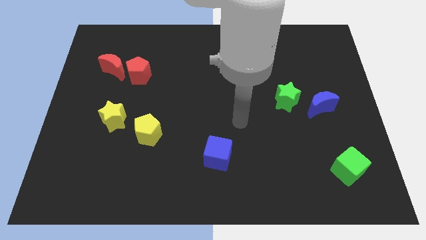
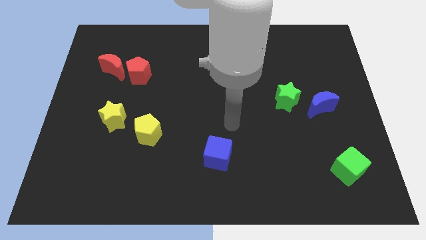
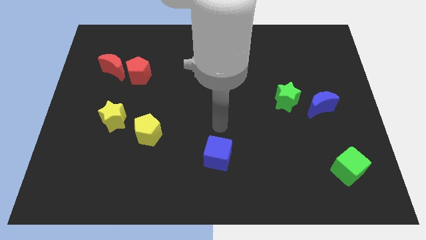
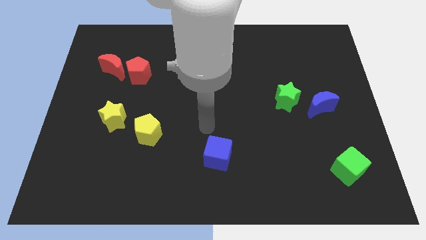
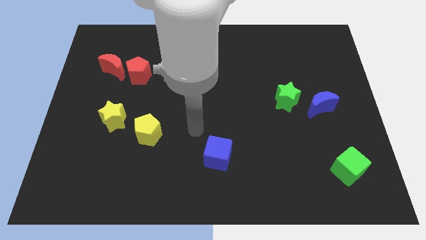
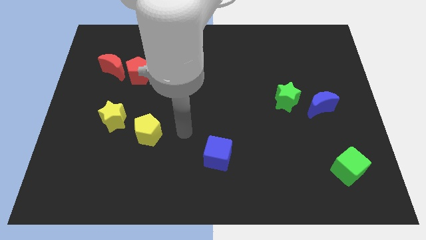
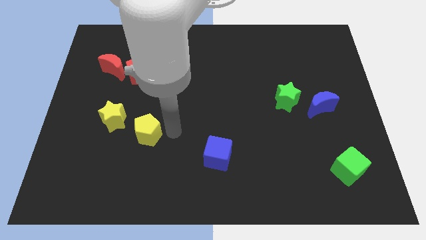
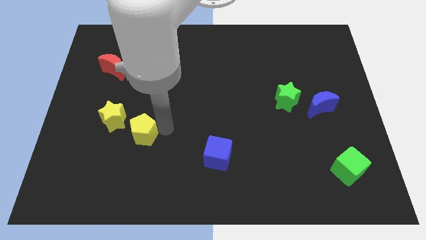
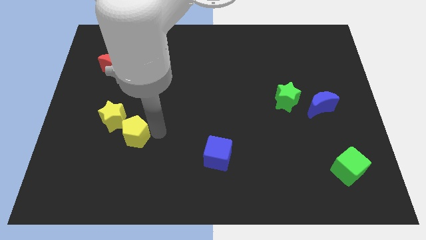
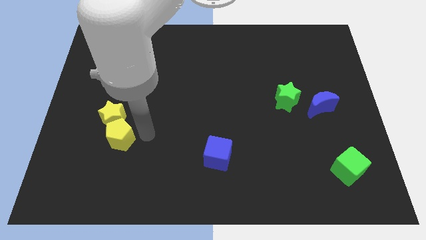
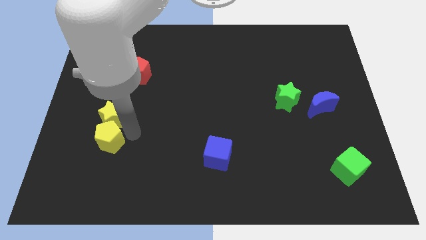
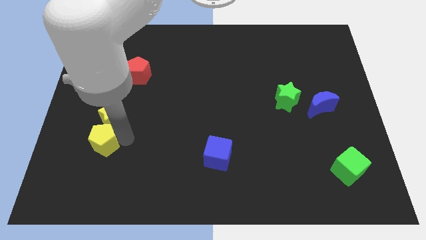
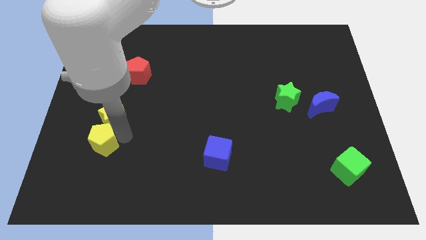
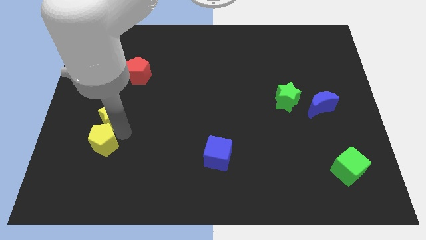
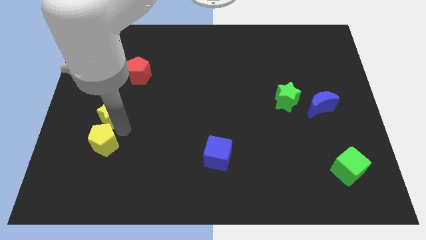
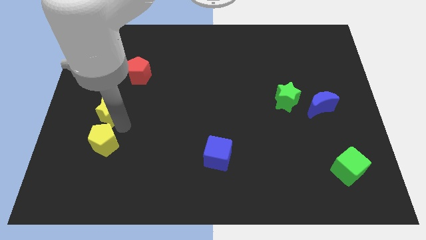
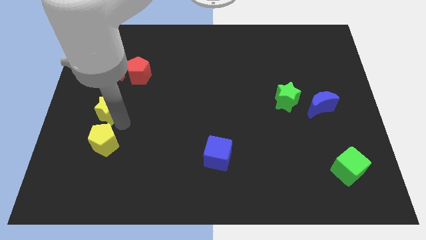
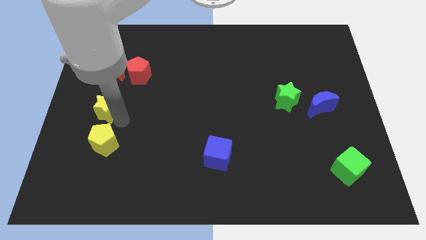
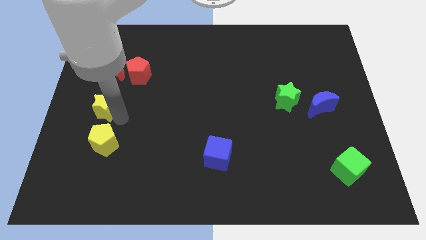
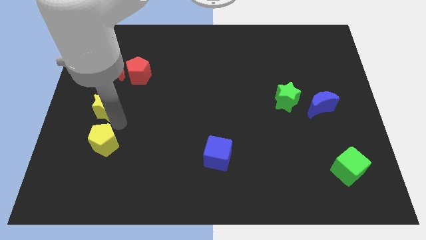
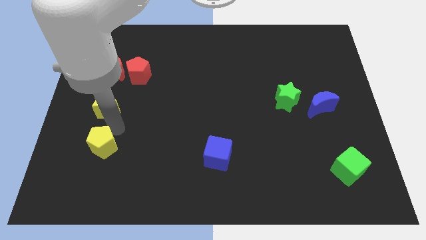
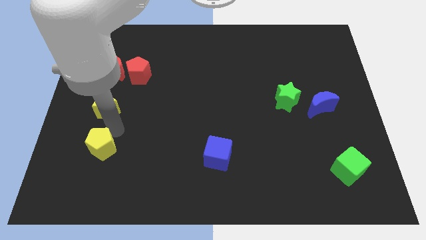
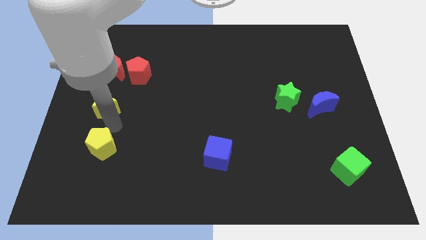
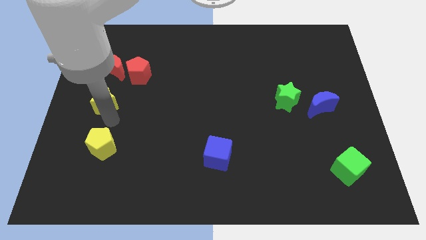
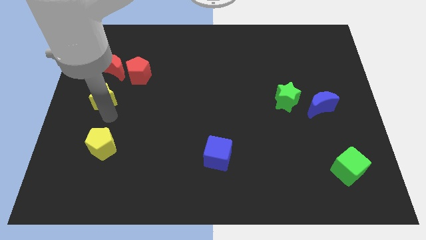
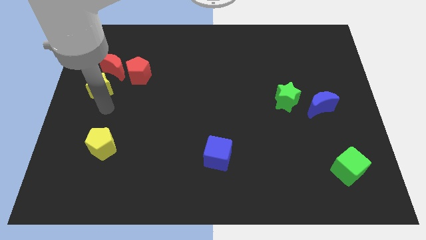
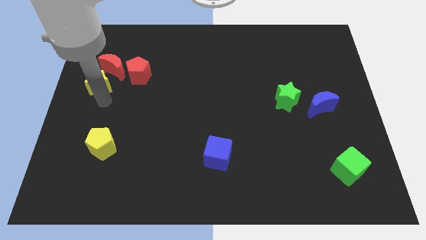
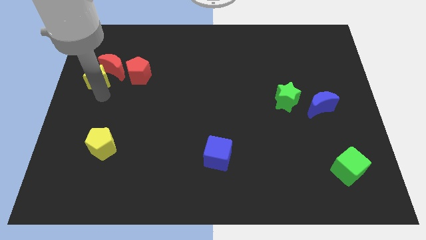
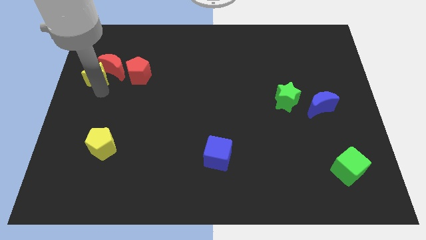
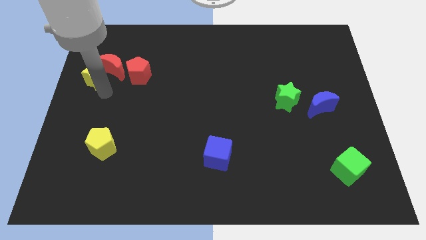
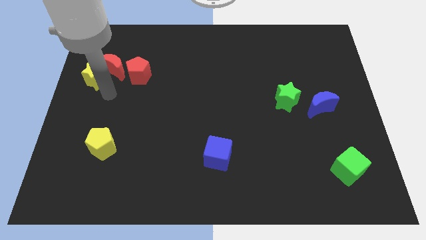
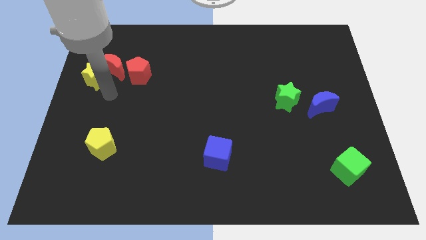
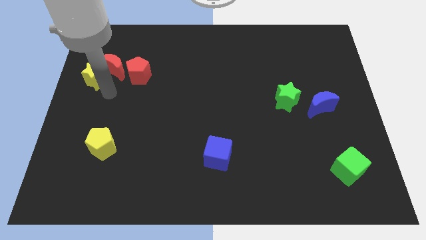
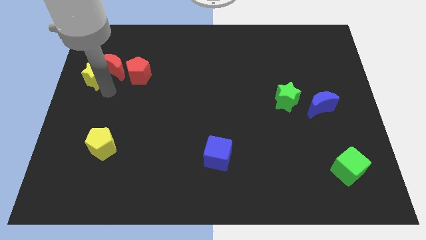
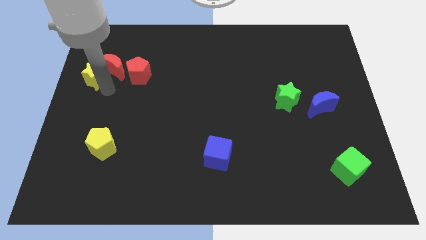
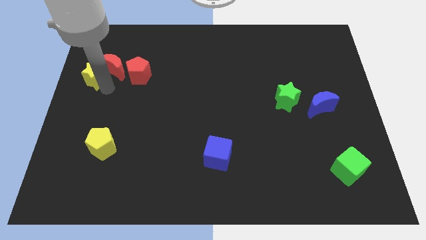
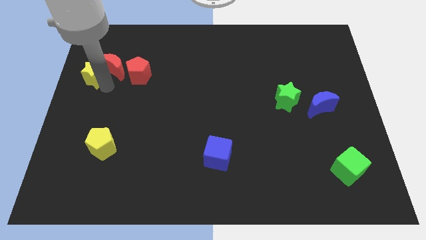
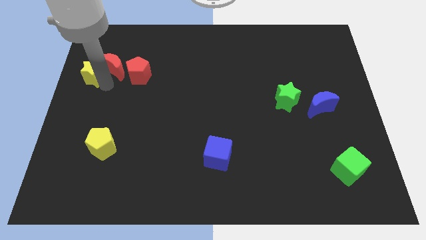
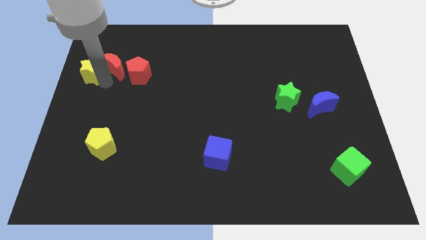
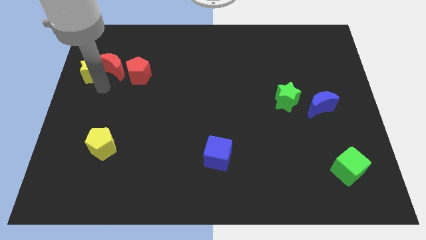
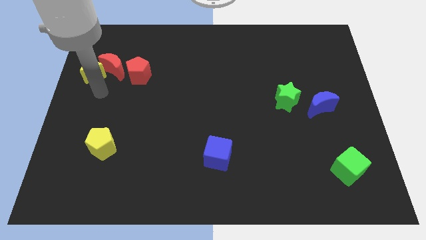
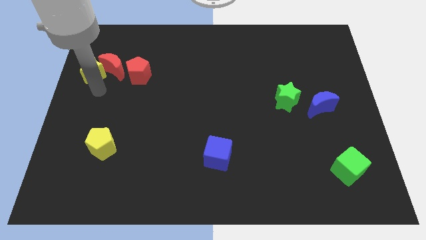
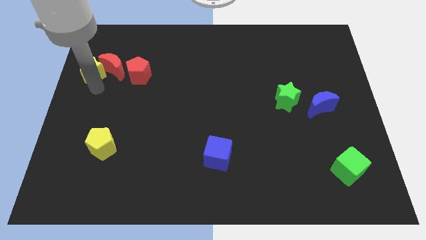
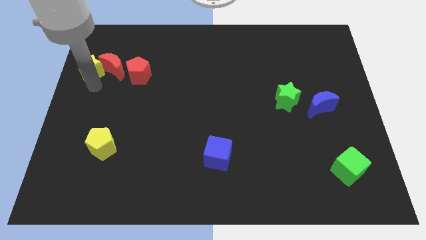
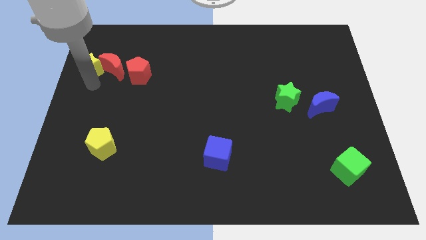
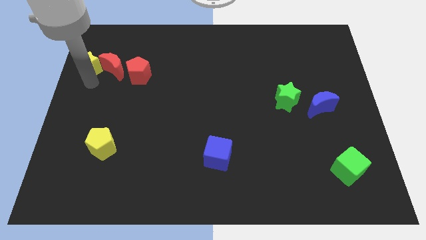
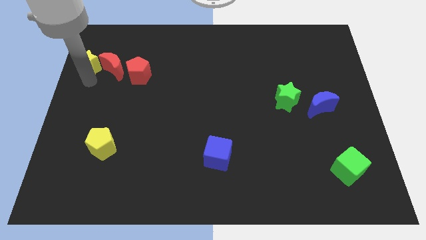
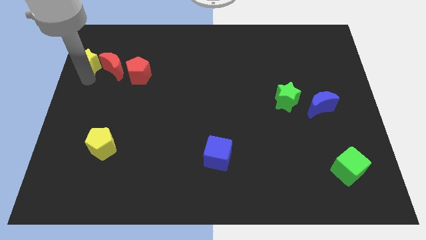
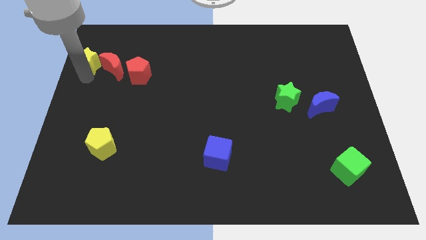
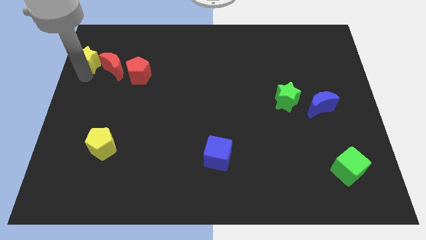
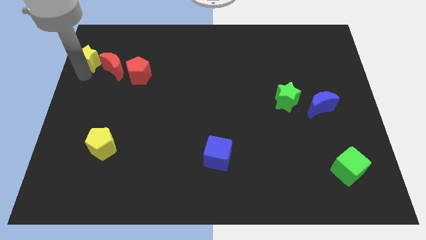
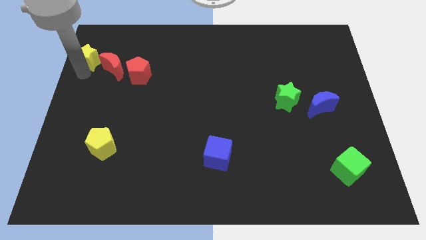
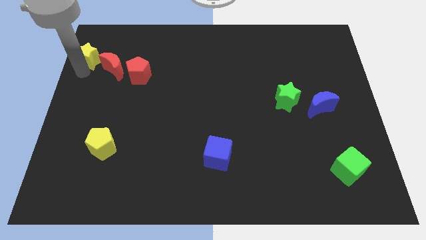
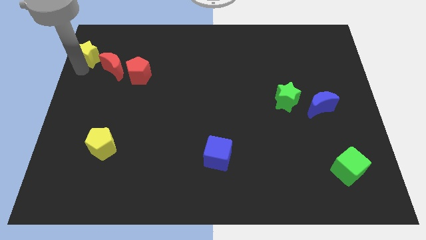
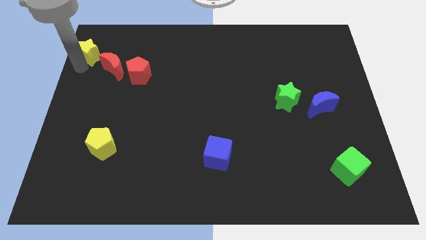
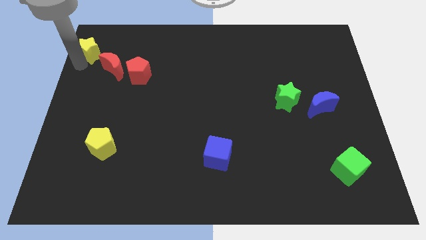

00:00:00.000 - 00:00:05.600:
put the yellow star to the top left corner
